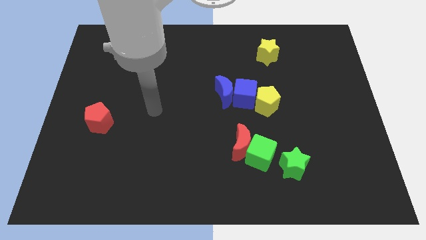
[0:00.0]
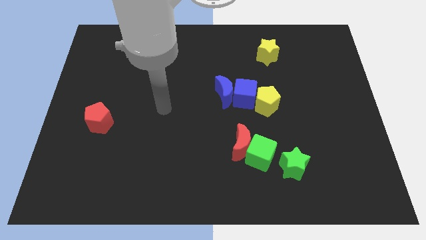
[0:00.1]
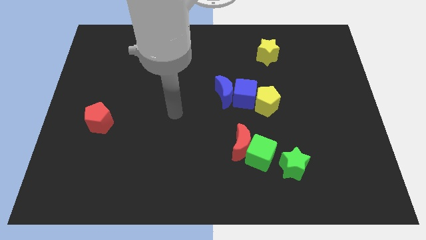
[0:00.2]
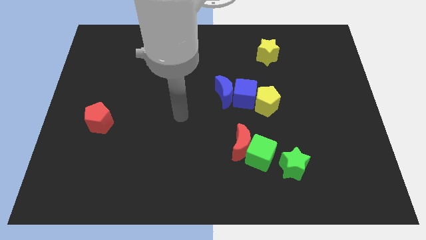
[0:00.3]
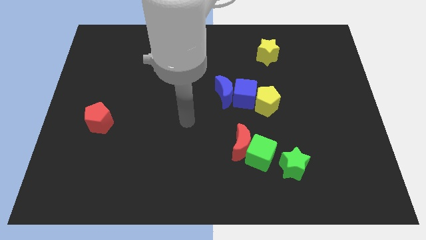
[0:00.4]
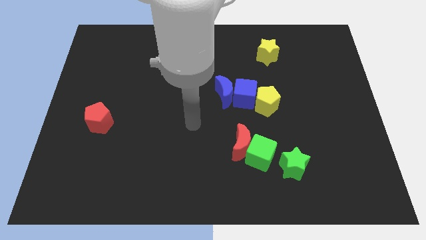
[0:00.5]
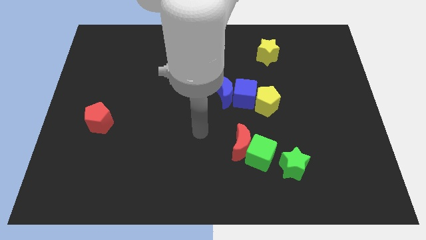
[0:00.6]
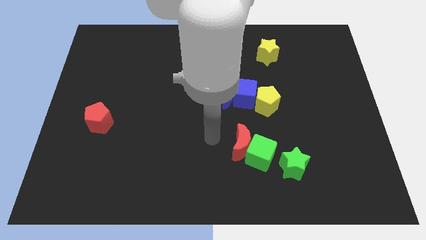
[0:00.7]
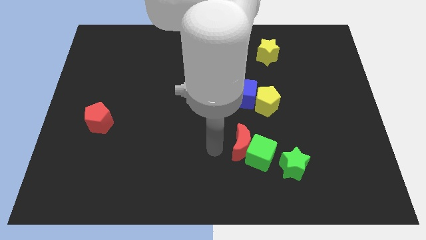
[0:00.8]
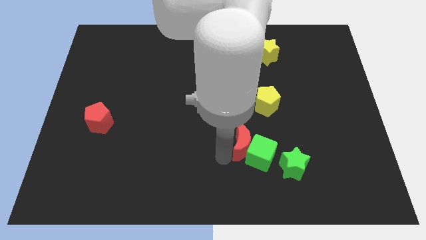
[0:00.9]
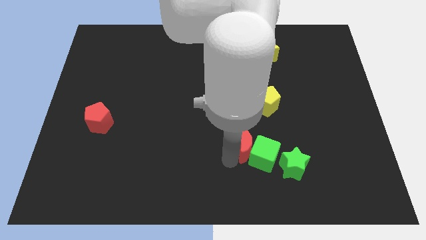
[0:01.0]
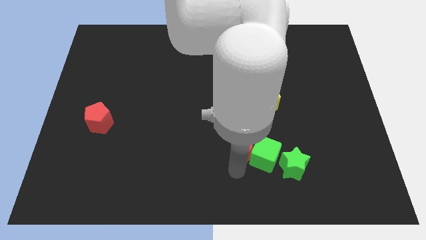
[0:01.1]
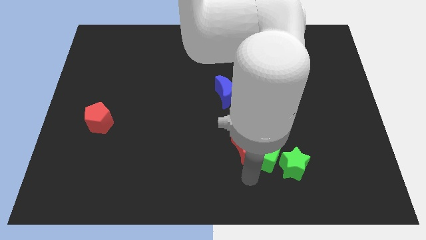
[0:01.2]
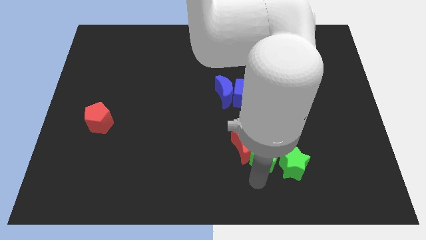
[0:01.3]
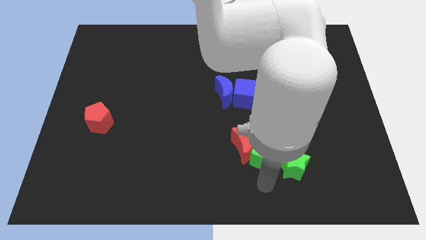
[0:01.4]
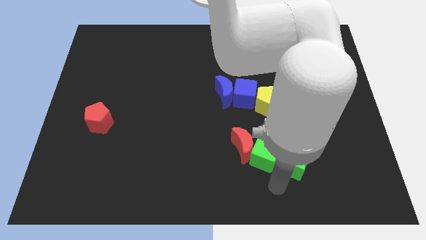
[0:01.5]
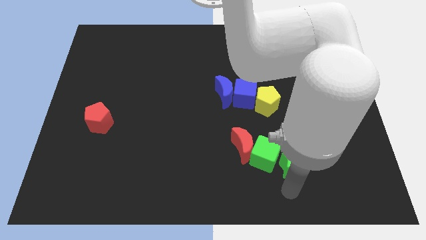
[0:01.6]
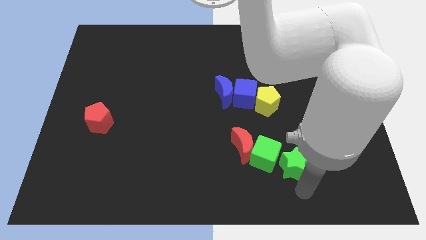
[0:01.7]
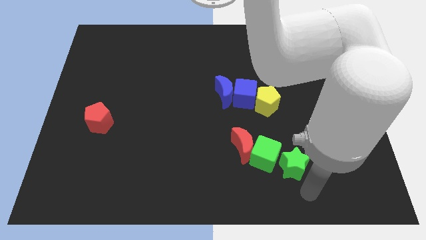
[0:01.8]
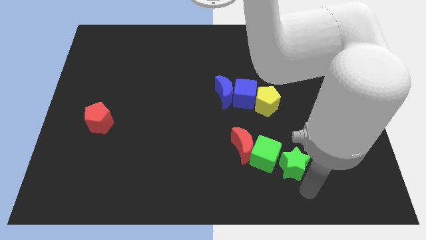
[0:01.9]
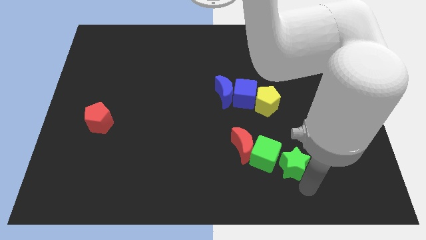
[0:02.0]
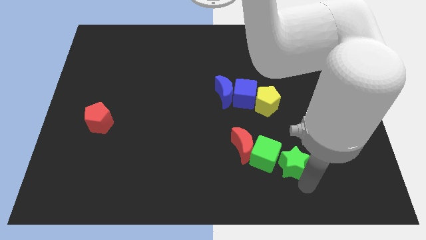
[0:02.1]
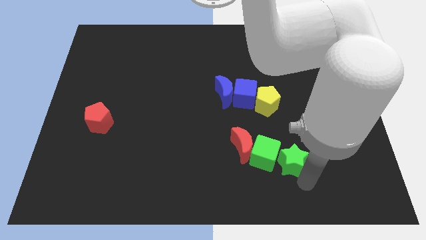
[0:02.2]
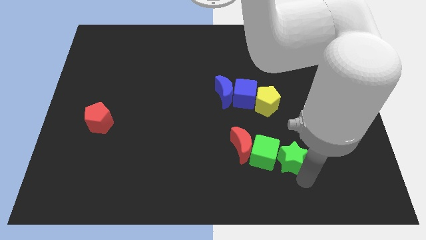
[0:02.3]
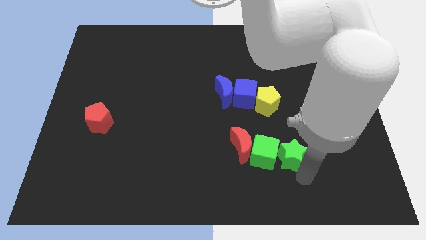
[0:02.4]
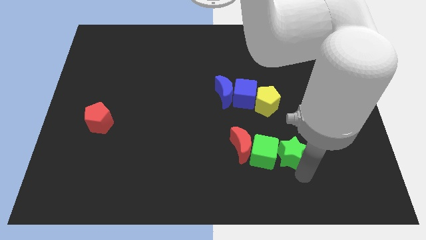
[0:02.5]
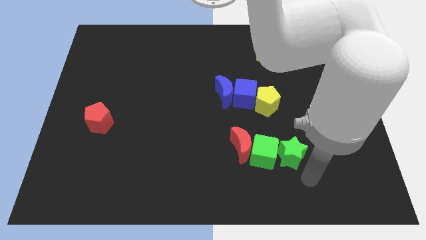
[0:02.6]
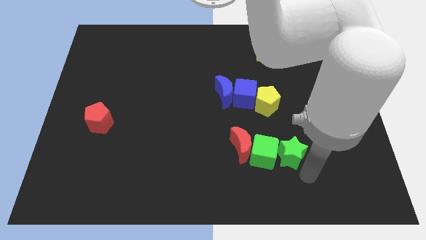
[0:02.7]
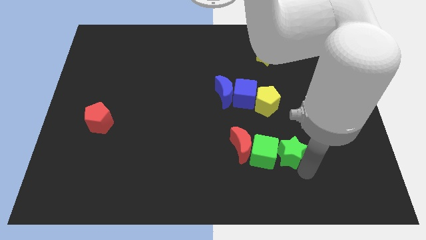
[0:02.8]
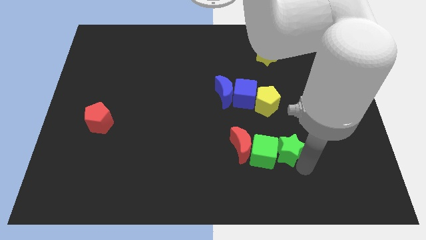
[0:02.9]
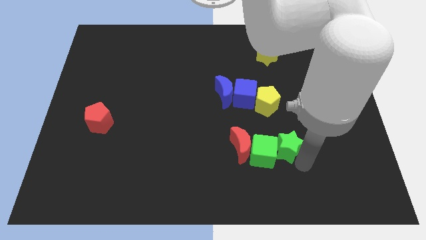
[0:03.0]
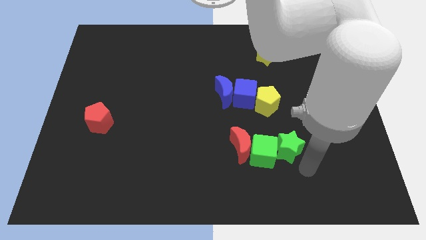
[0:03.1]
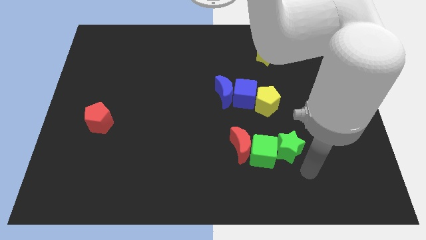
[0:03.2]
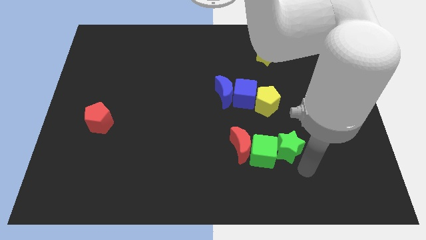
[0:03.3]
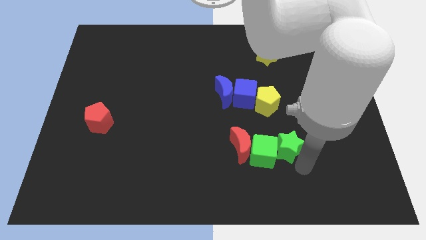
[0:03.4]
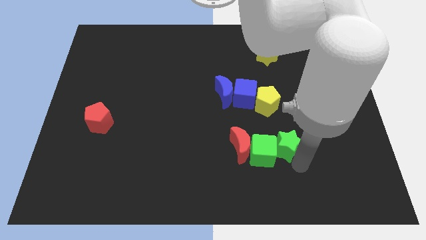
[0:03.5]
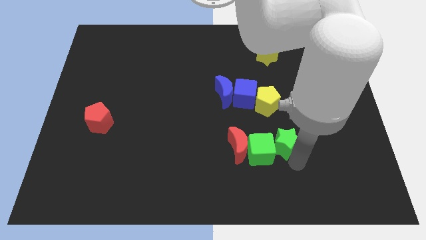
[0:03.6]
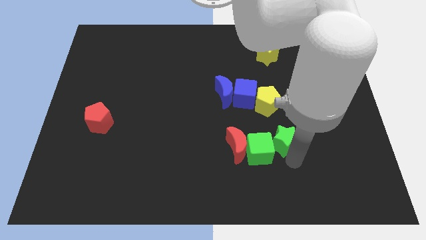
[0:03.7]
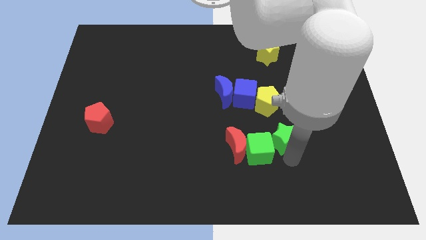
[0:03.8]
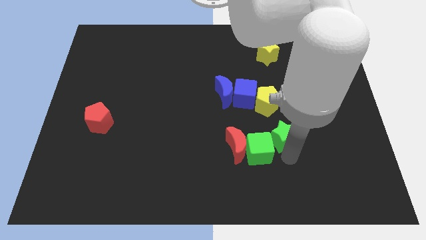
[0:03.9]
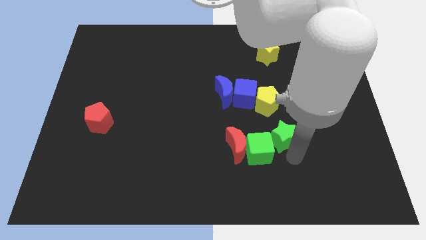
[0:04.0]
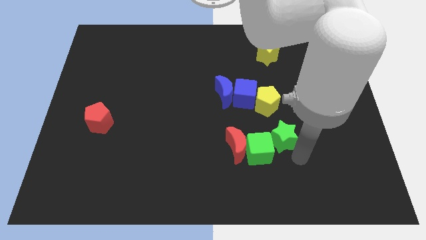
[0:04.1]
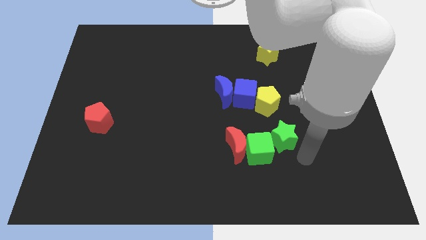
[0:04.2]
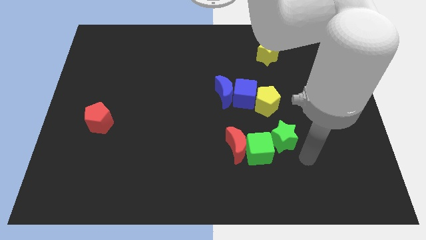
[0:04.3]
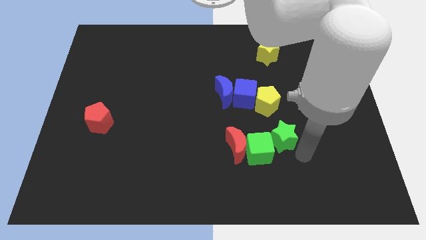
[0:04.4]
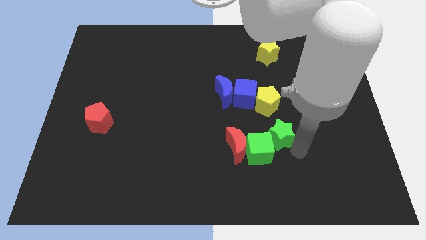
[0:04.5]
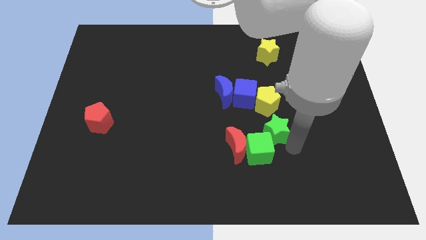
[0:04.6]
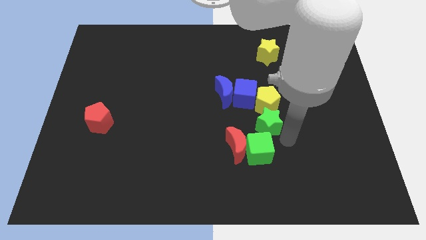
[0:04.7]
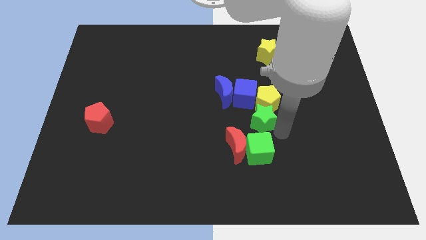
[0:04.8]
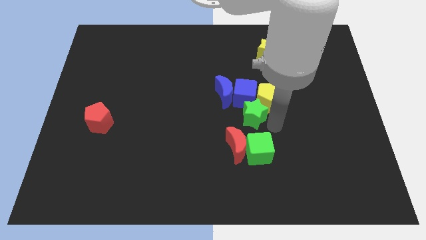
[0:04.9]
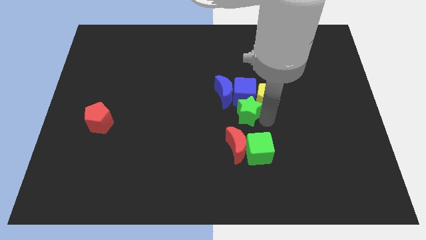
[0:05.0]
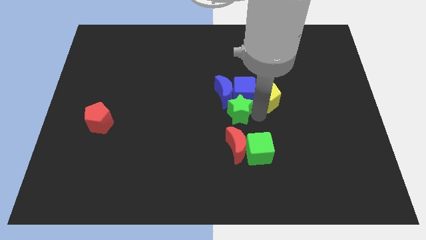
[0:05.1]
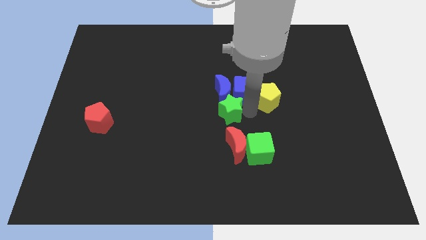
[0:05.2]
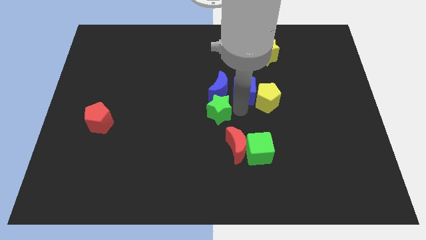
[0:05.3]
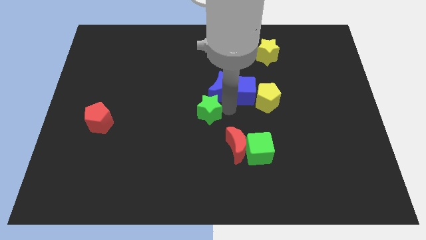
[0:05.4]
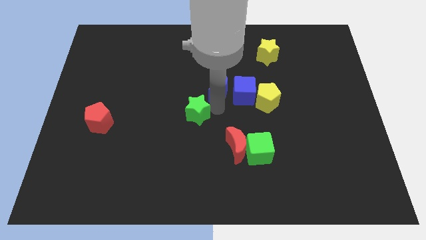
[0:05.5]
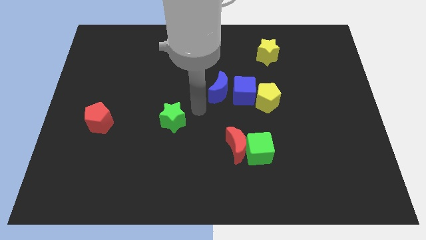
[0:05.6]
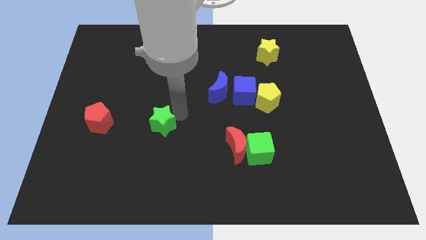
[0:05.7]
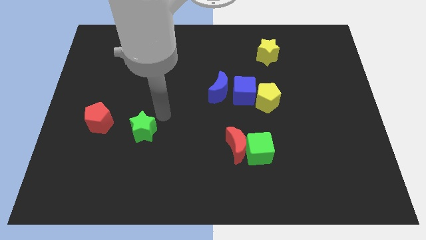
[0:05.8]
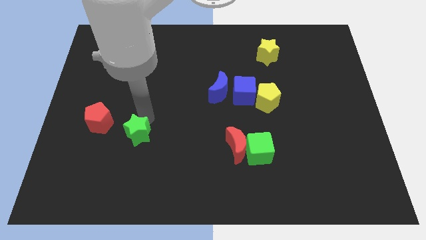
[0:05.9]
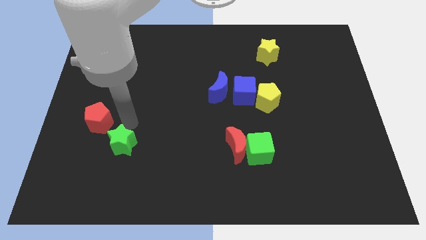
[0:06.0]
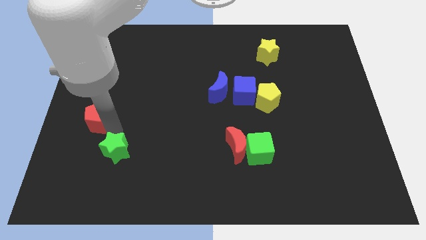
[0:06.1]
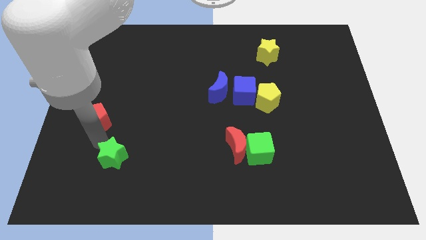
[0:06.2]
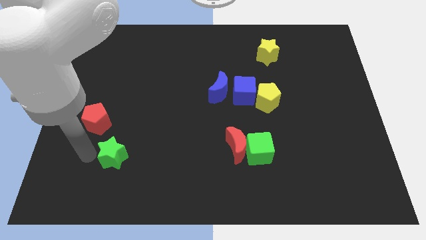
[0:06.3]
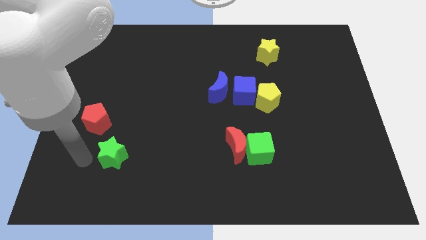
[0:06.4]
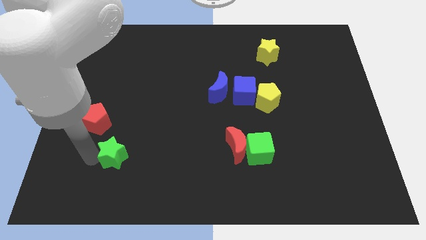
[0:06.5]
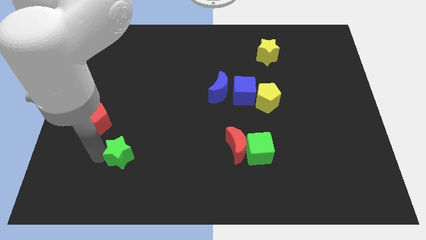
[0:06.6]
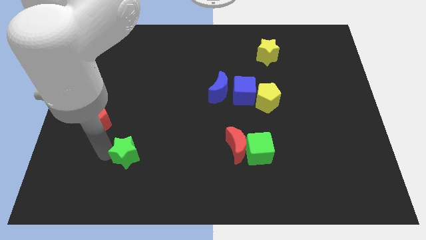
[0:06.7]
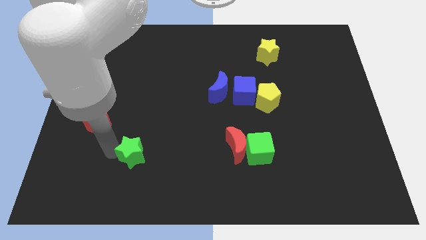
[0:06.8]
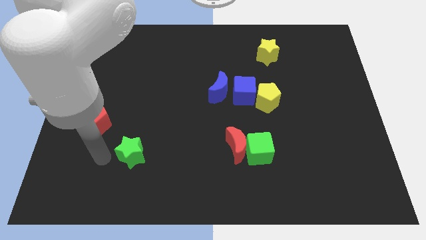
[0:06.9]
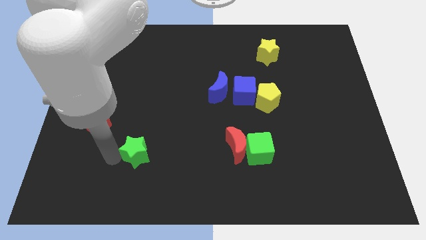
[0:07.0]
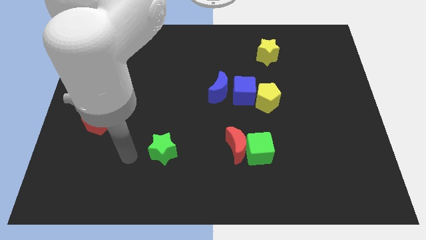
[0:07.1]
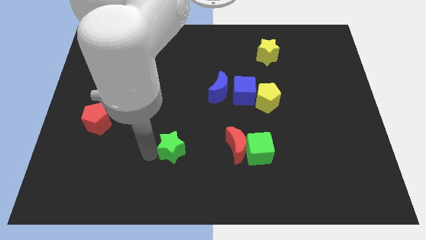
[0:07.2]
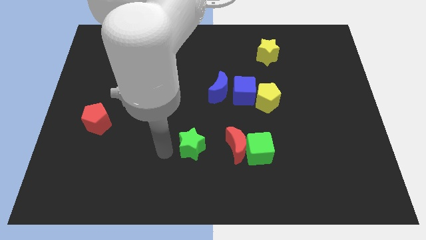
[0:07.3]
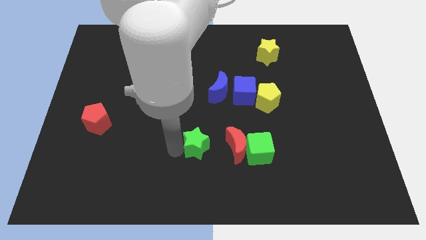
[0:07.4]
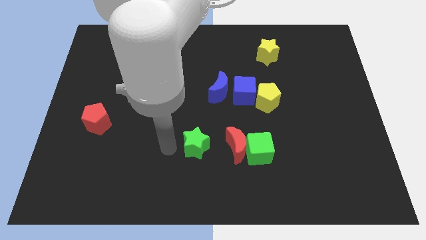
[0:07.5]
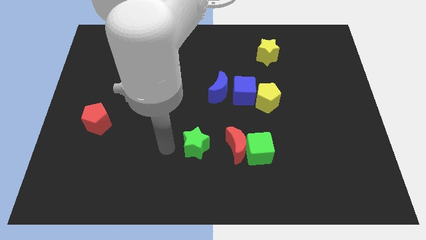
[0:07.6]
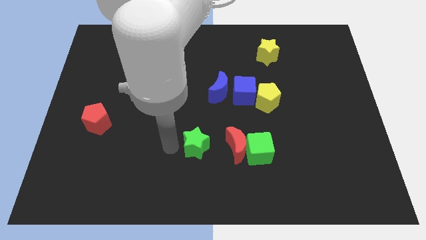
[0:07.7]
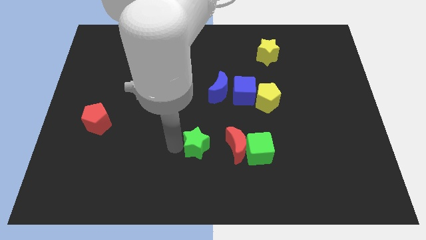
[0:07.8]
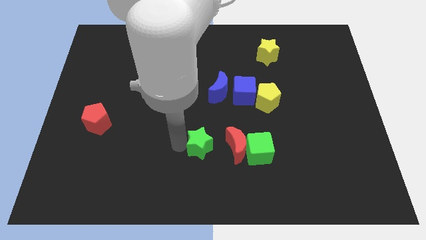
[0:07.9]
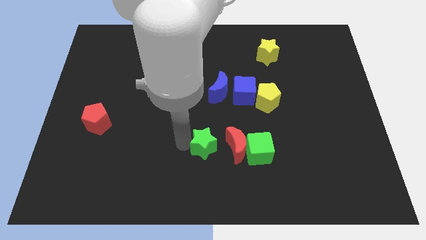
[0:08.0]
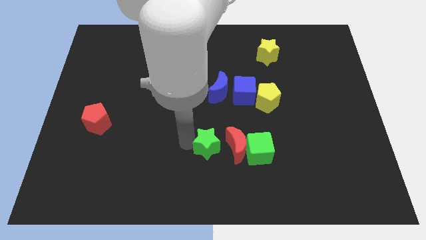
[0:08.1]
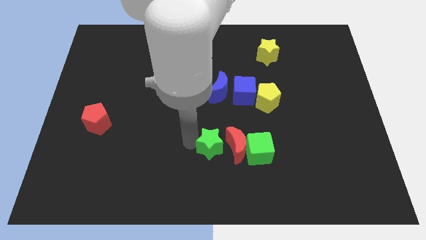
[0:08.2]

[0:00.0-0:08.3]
slide the green star to the red moon
